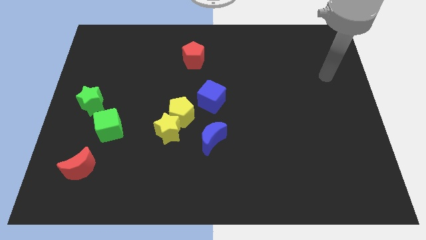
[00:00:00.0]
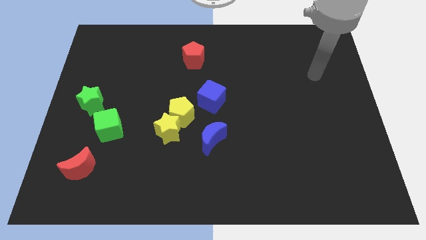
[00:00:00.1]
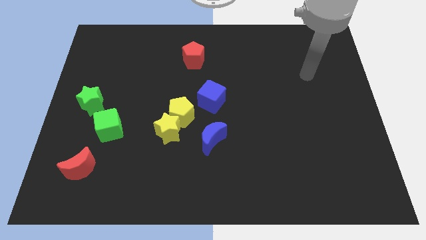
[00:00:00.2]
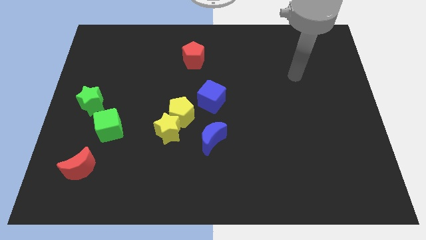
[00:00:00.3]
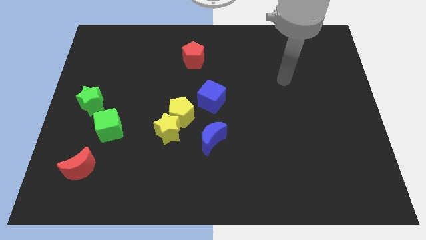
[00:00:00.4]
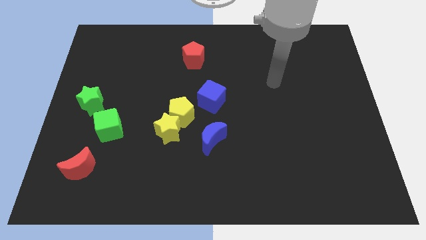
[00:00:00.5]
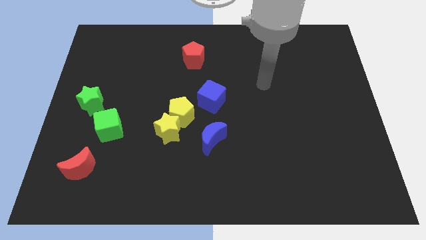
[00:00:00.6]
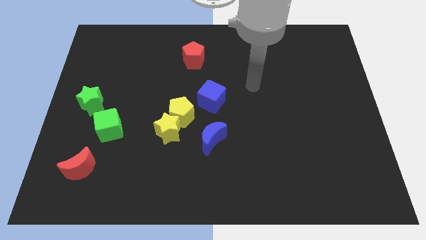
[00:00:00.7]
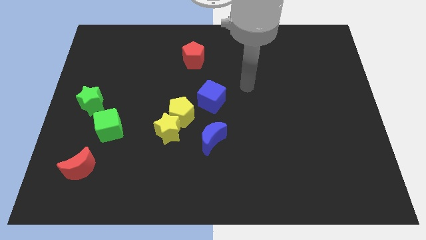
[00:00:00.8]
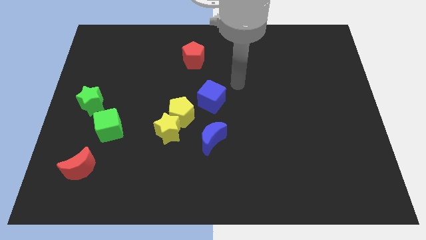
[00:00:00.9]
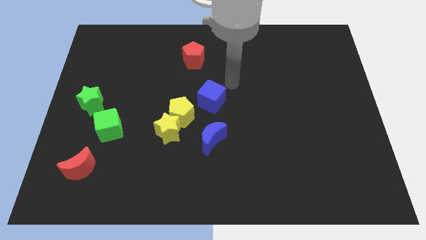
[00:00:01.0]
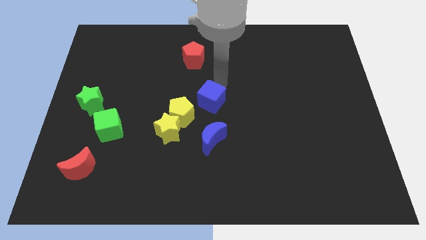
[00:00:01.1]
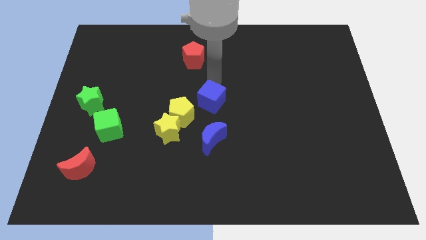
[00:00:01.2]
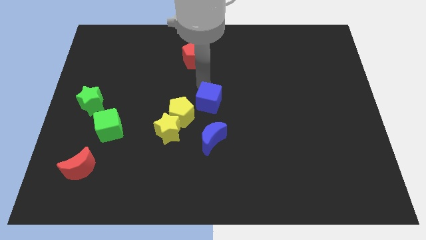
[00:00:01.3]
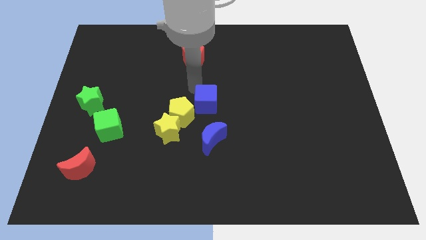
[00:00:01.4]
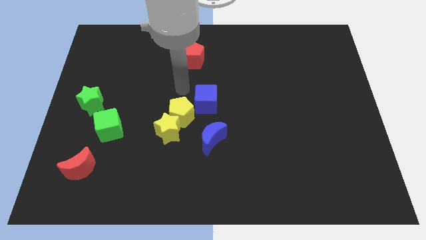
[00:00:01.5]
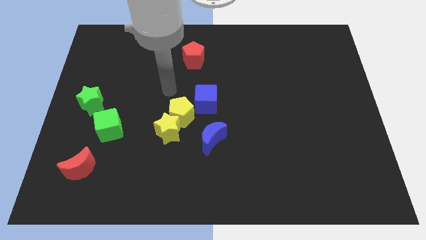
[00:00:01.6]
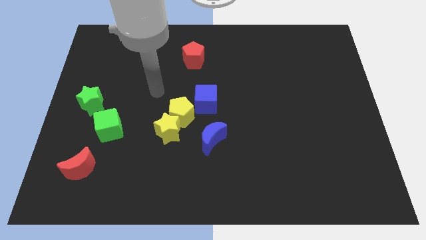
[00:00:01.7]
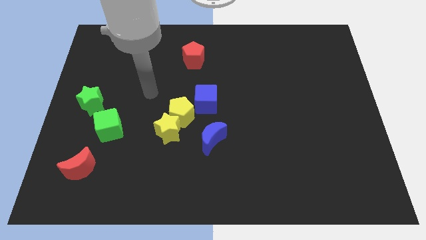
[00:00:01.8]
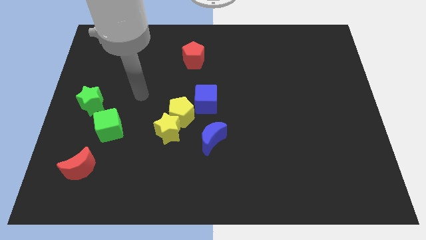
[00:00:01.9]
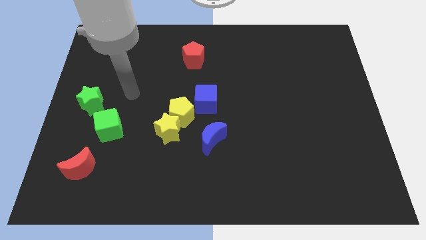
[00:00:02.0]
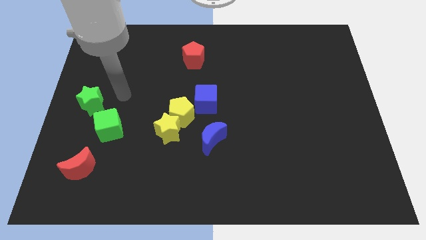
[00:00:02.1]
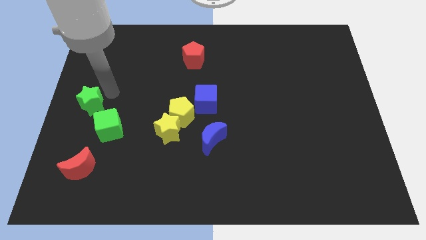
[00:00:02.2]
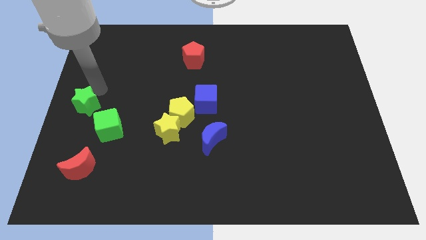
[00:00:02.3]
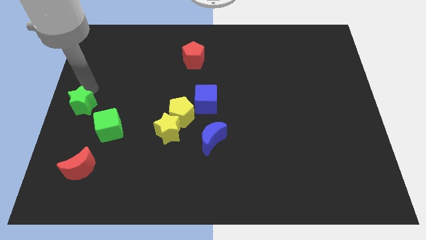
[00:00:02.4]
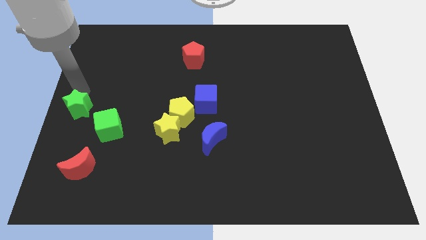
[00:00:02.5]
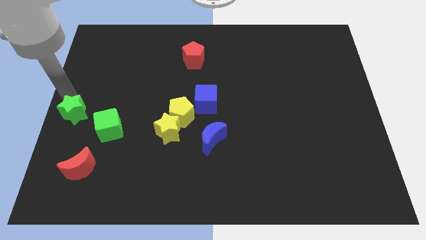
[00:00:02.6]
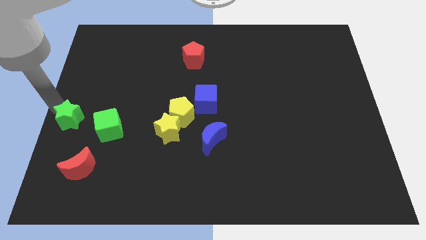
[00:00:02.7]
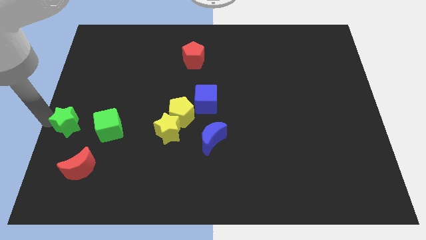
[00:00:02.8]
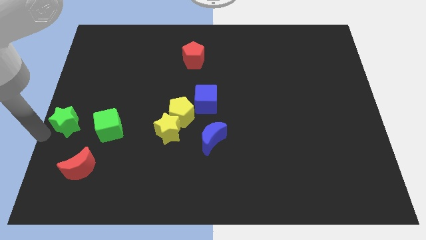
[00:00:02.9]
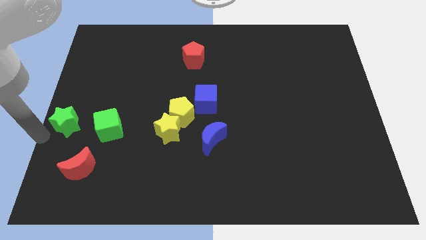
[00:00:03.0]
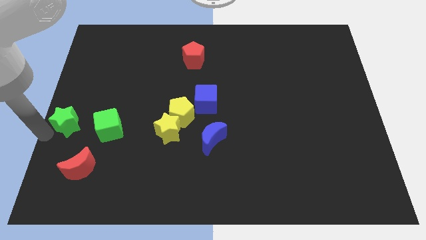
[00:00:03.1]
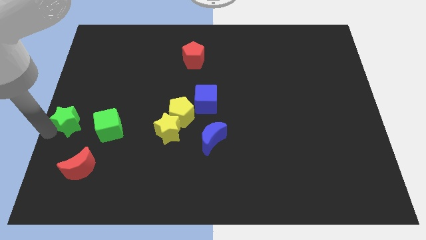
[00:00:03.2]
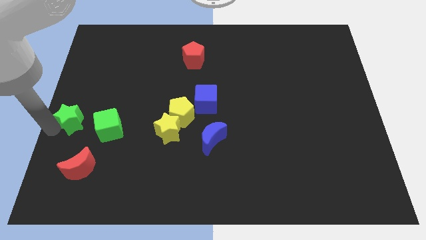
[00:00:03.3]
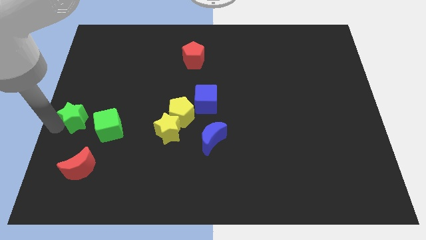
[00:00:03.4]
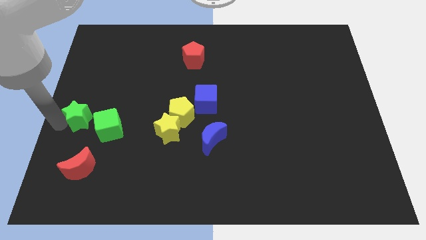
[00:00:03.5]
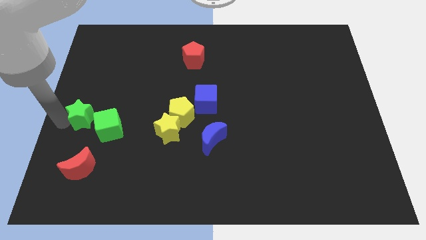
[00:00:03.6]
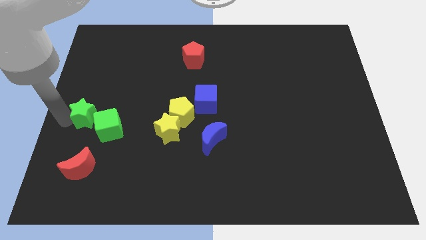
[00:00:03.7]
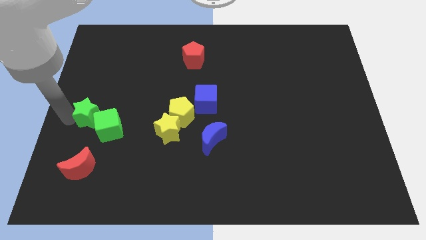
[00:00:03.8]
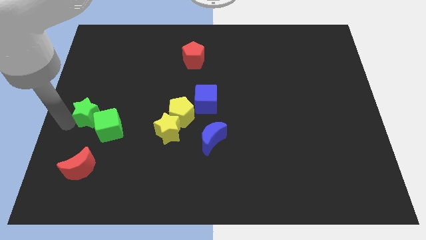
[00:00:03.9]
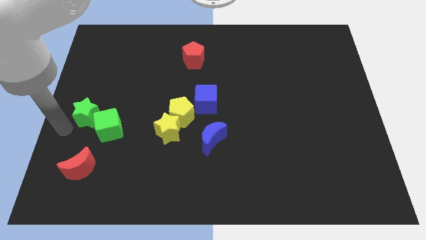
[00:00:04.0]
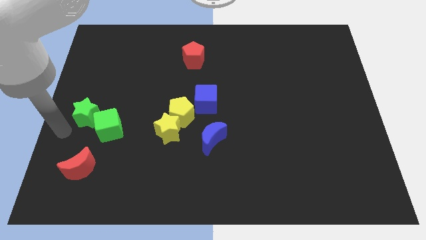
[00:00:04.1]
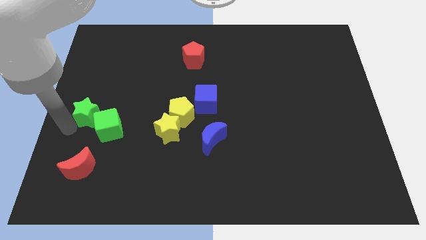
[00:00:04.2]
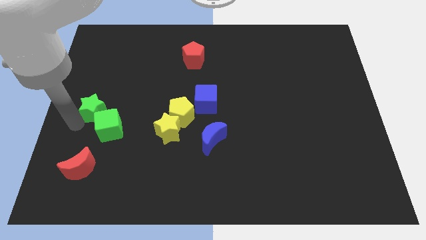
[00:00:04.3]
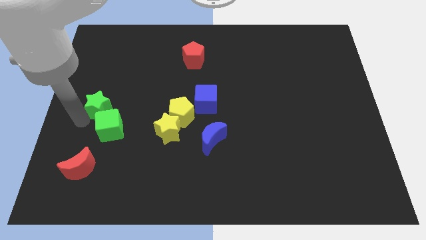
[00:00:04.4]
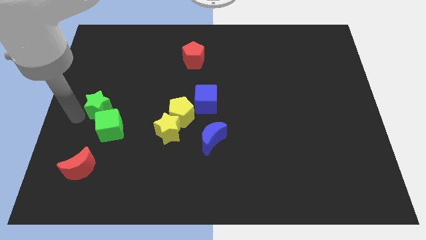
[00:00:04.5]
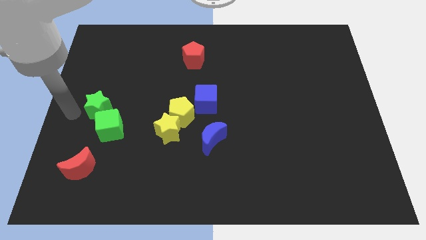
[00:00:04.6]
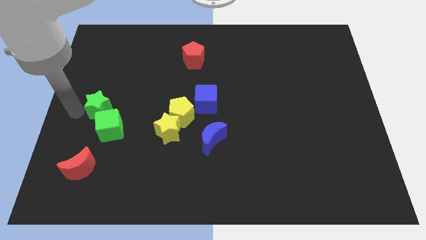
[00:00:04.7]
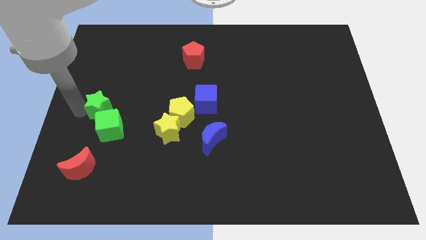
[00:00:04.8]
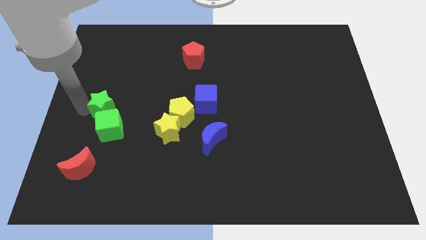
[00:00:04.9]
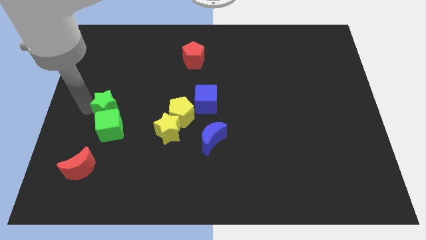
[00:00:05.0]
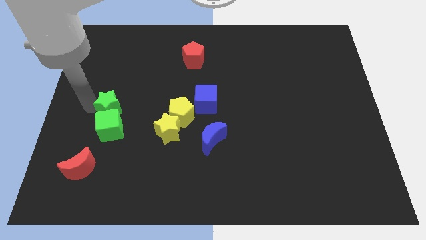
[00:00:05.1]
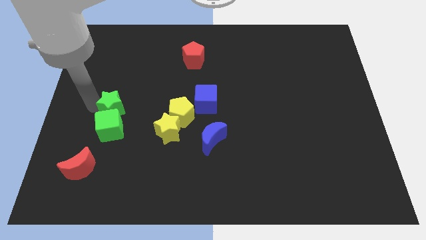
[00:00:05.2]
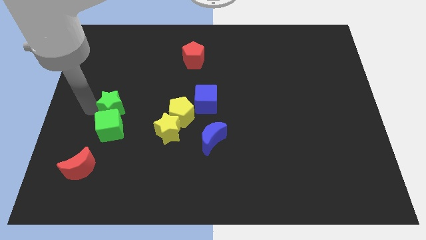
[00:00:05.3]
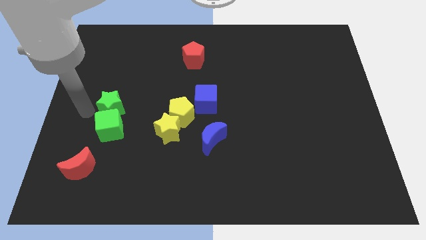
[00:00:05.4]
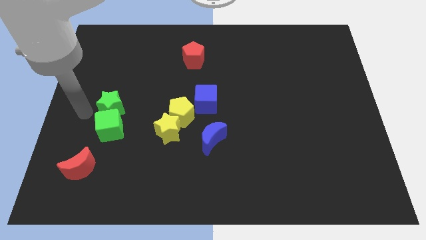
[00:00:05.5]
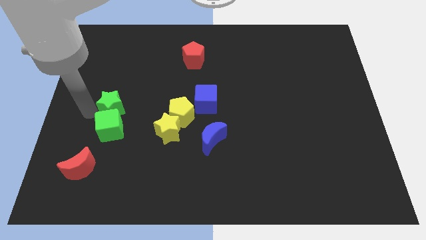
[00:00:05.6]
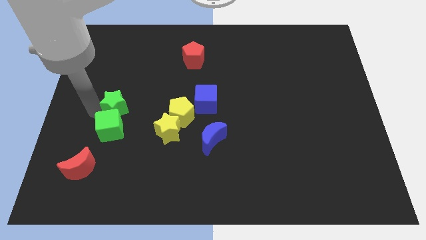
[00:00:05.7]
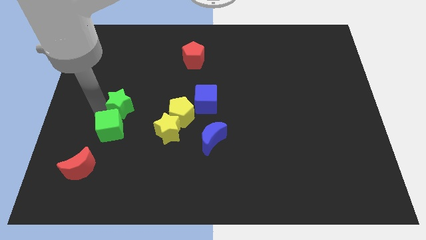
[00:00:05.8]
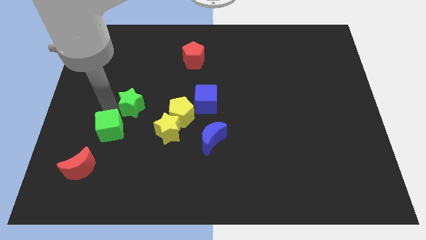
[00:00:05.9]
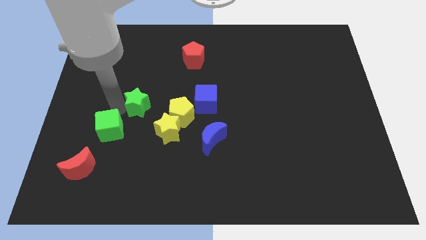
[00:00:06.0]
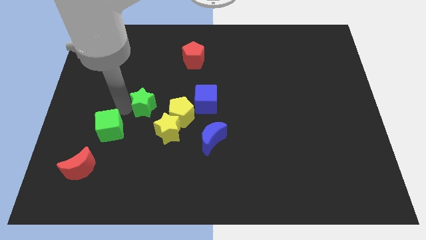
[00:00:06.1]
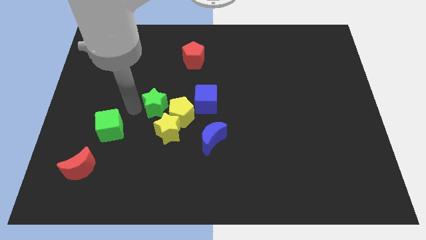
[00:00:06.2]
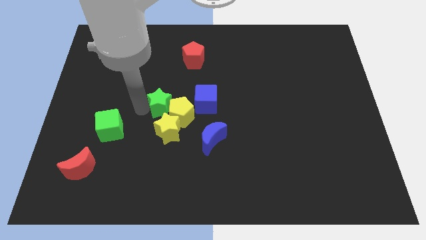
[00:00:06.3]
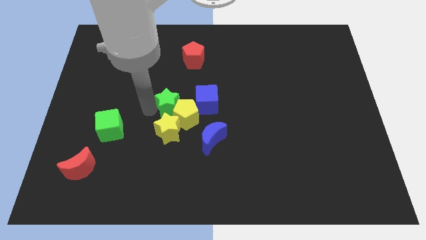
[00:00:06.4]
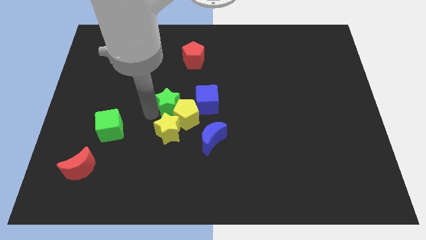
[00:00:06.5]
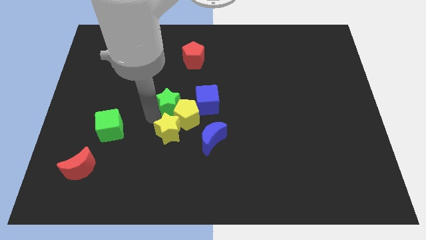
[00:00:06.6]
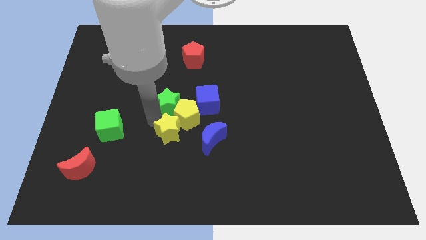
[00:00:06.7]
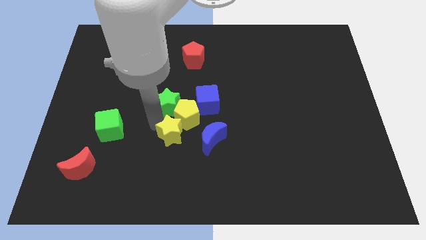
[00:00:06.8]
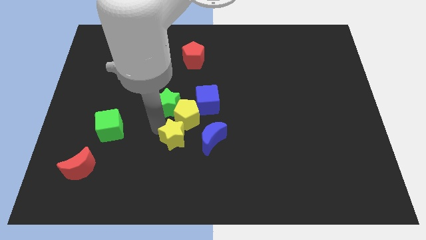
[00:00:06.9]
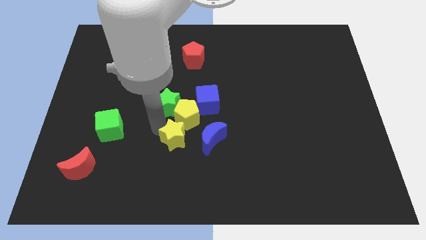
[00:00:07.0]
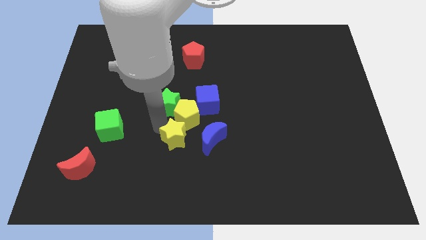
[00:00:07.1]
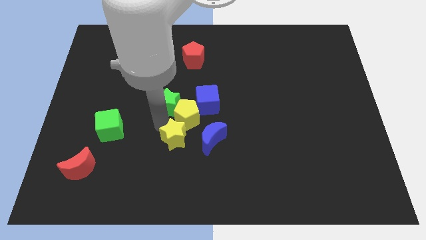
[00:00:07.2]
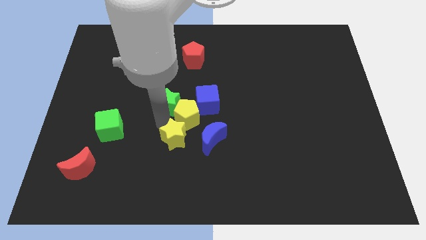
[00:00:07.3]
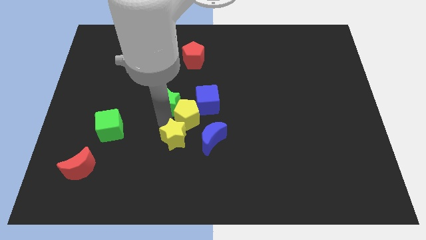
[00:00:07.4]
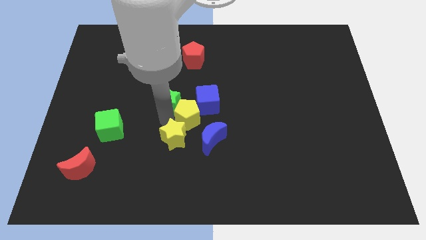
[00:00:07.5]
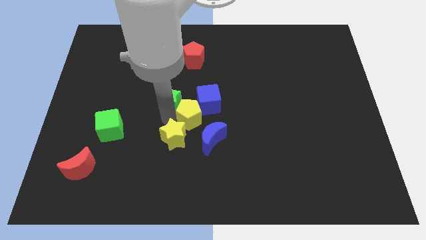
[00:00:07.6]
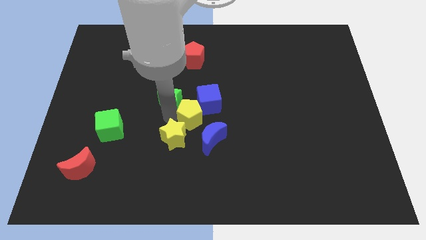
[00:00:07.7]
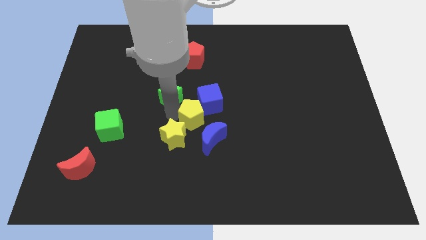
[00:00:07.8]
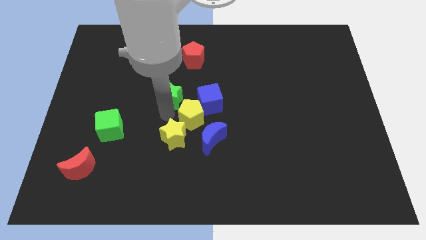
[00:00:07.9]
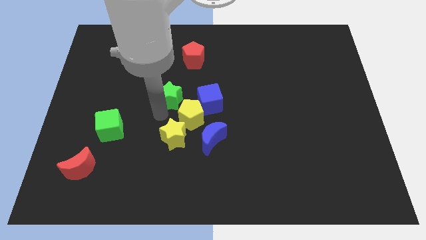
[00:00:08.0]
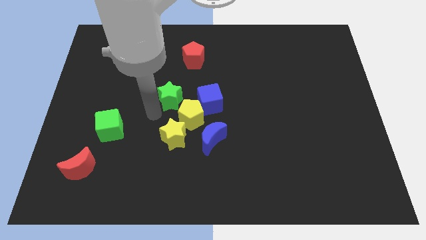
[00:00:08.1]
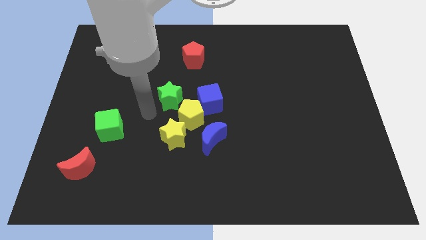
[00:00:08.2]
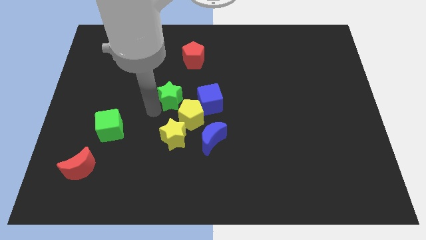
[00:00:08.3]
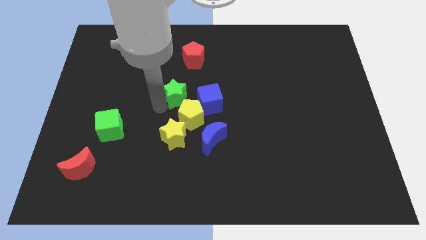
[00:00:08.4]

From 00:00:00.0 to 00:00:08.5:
move the green star right
